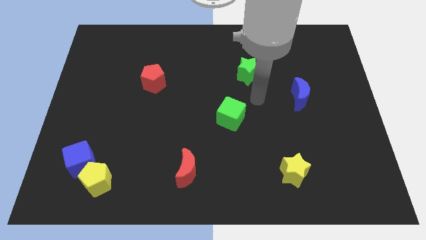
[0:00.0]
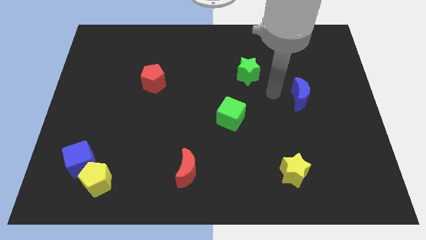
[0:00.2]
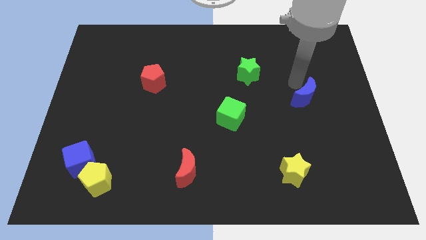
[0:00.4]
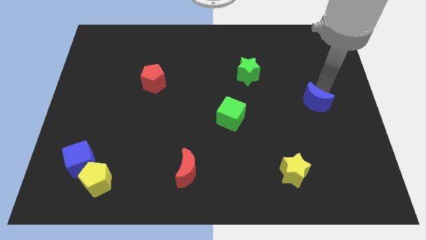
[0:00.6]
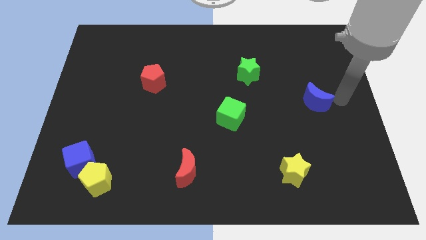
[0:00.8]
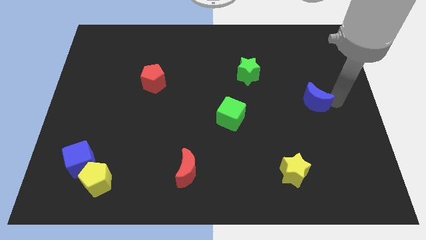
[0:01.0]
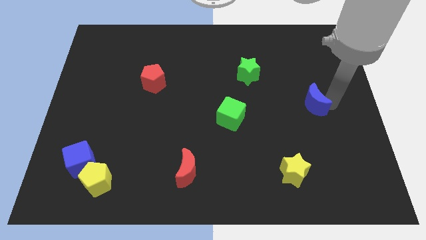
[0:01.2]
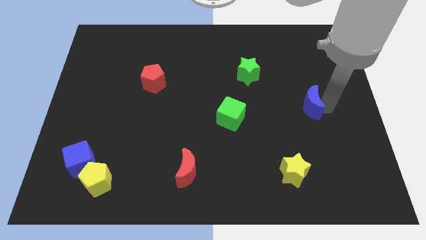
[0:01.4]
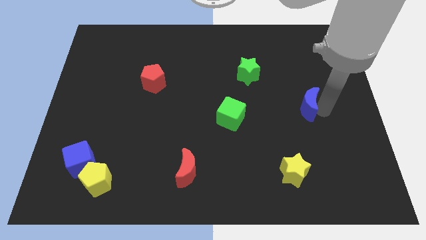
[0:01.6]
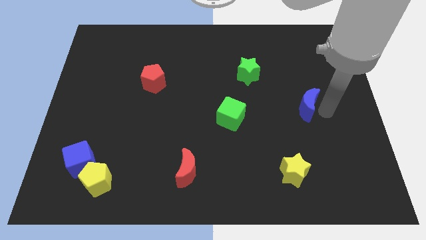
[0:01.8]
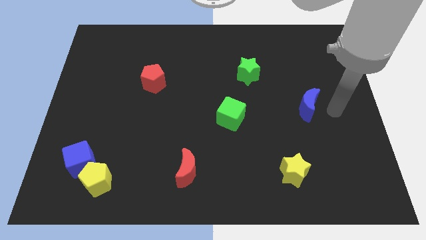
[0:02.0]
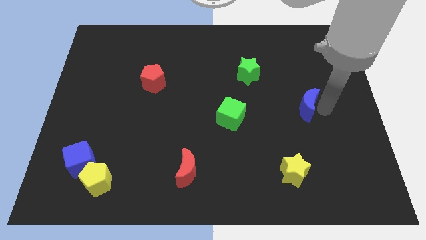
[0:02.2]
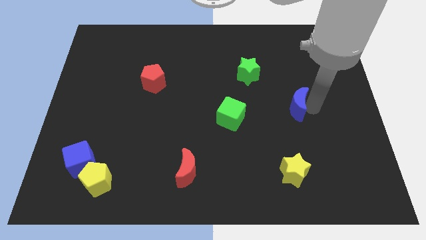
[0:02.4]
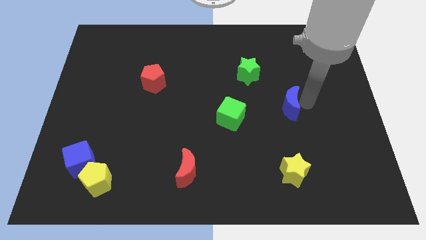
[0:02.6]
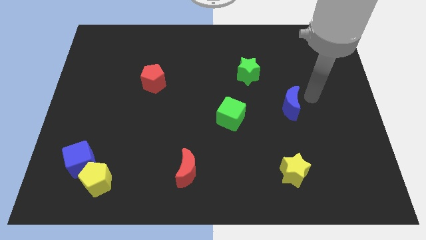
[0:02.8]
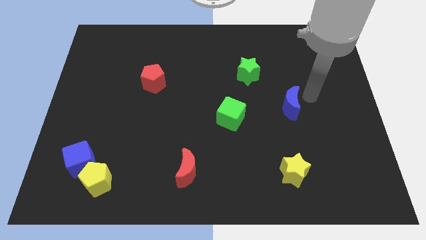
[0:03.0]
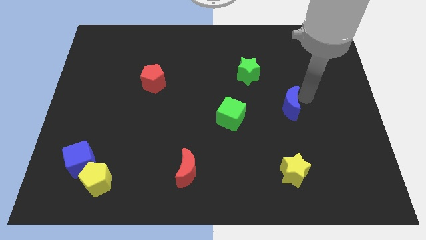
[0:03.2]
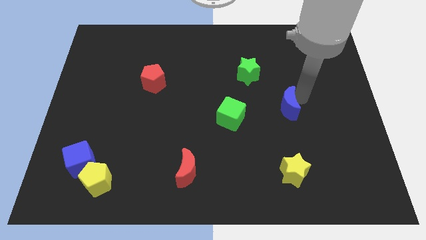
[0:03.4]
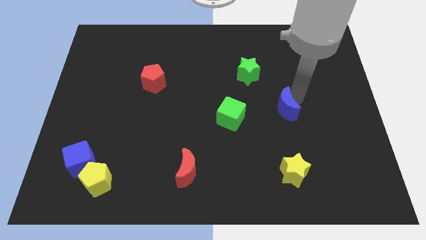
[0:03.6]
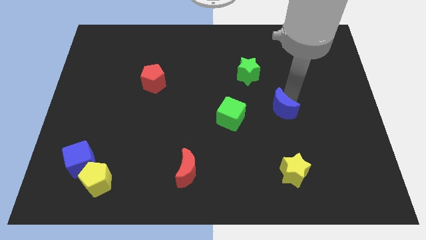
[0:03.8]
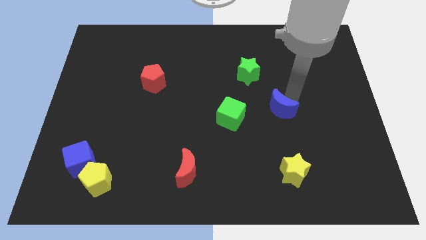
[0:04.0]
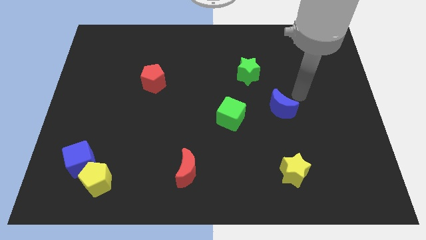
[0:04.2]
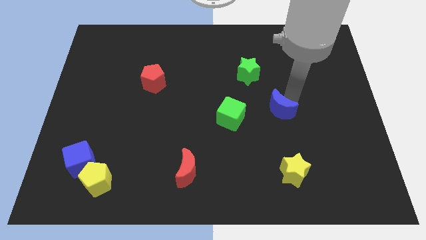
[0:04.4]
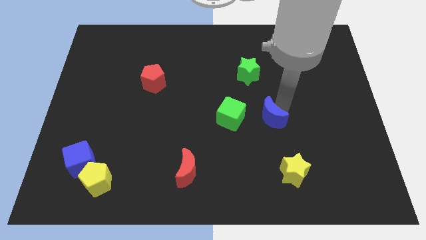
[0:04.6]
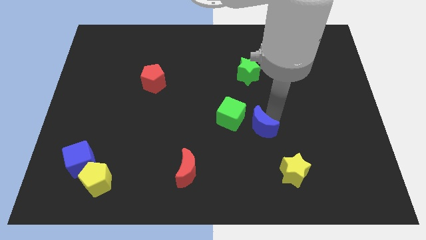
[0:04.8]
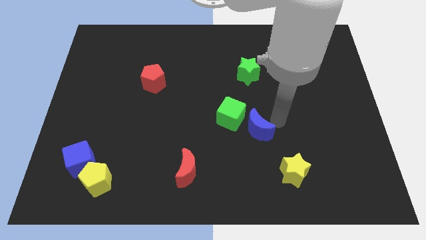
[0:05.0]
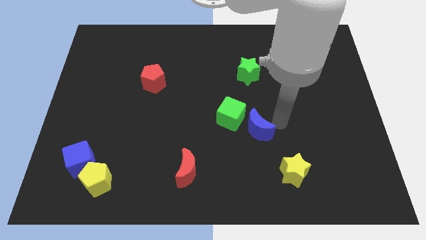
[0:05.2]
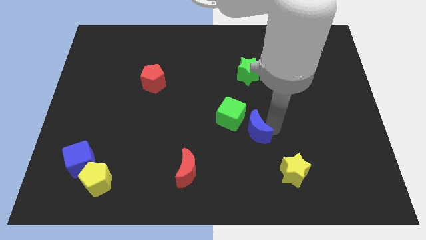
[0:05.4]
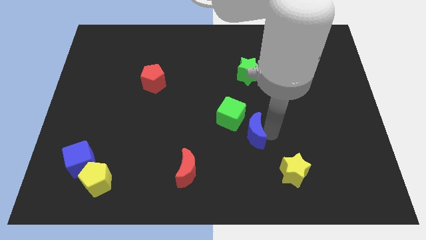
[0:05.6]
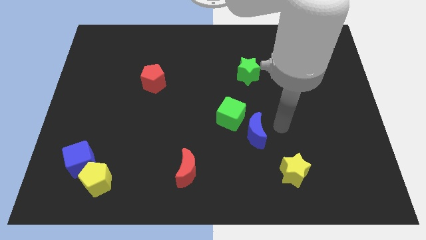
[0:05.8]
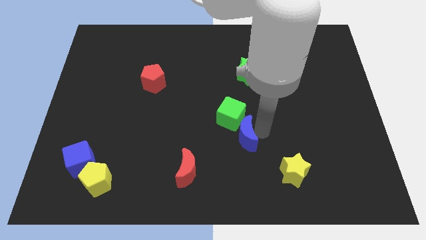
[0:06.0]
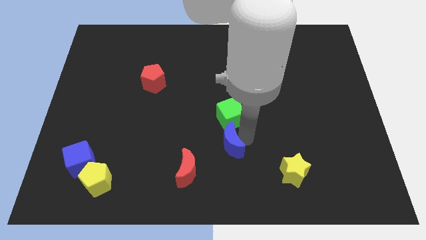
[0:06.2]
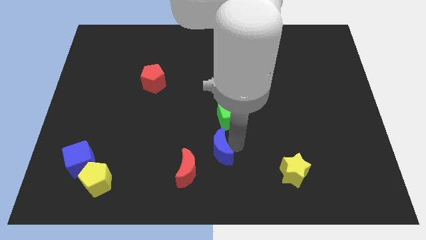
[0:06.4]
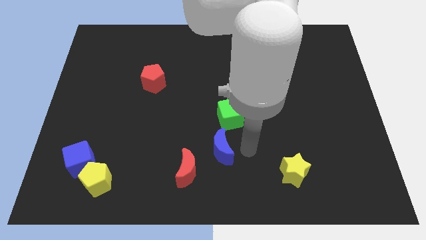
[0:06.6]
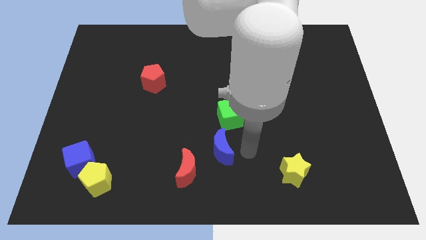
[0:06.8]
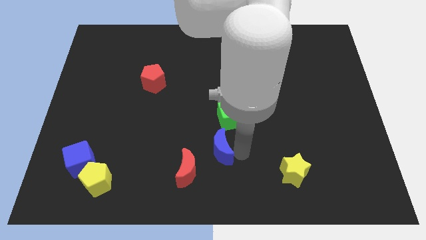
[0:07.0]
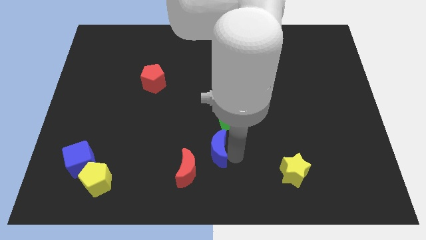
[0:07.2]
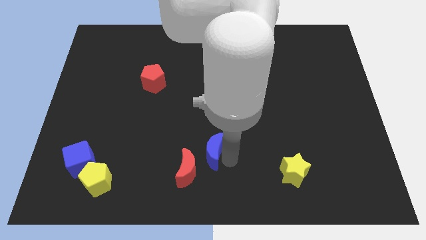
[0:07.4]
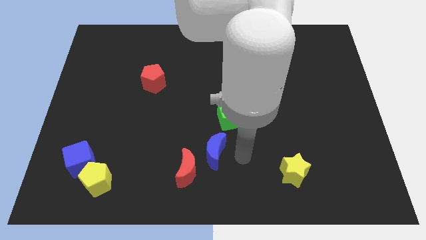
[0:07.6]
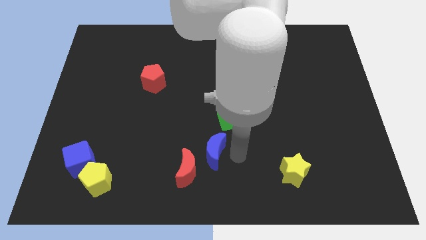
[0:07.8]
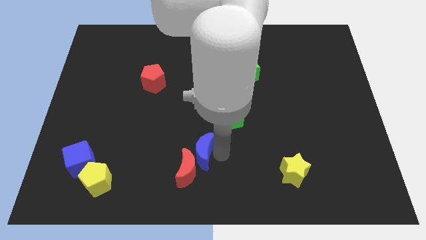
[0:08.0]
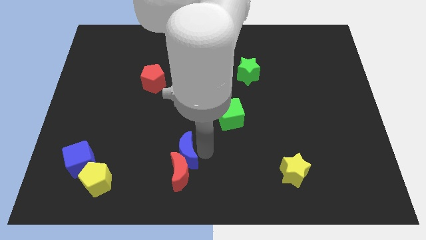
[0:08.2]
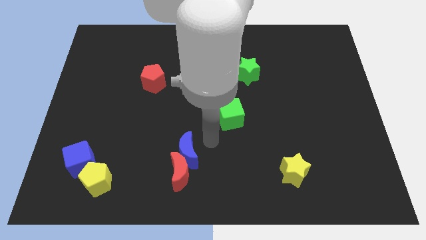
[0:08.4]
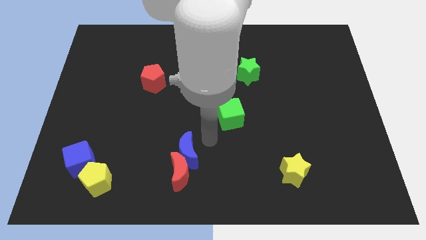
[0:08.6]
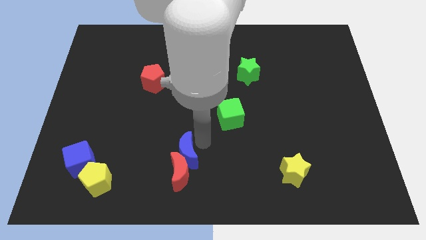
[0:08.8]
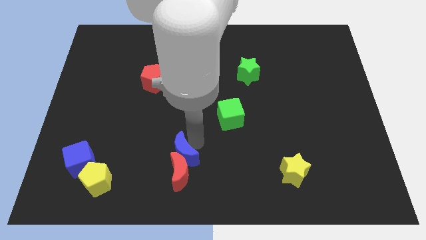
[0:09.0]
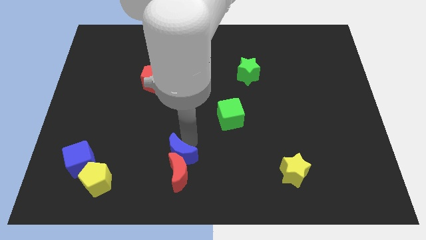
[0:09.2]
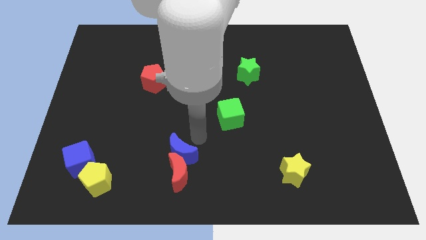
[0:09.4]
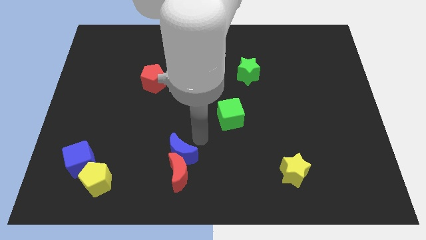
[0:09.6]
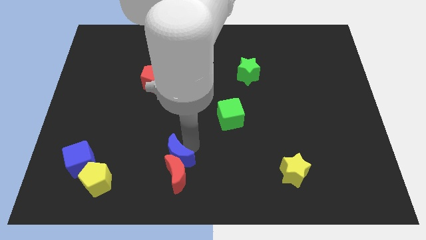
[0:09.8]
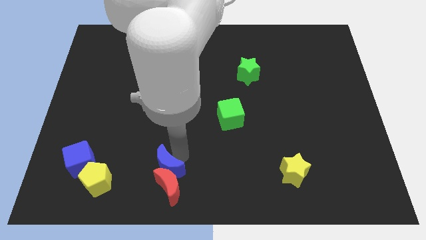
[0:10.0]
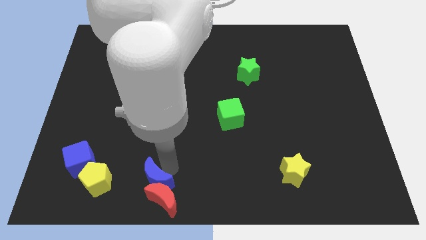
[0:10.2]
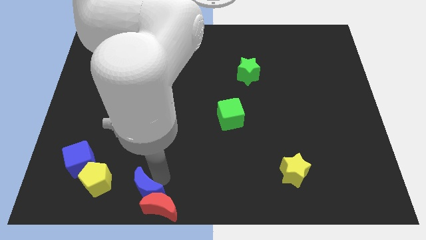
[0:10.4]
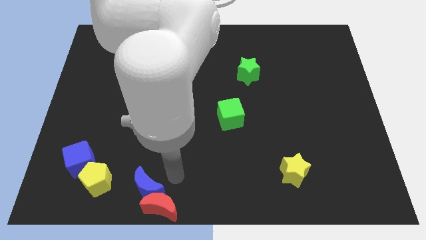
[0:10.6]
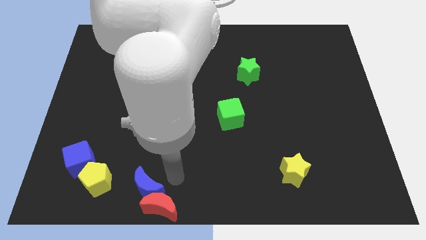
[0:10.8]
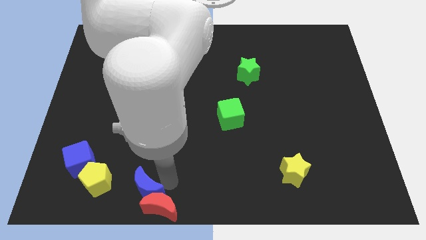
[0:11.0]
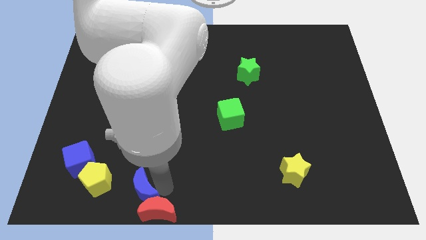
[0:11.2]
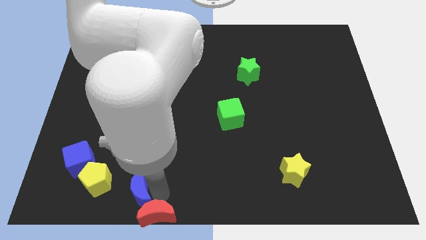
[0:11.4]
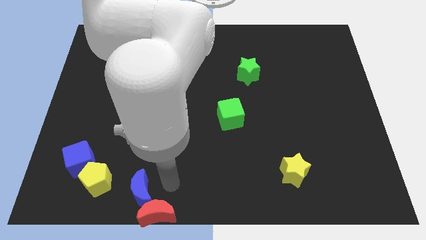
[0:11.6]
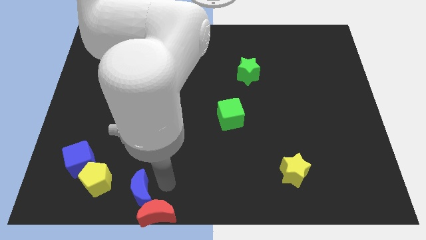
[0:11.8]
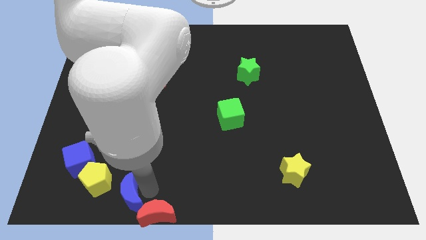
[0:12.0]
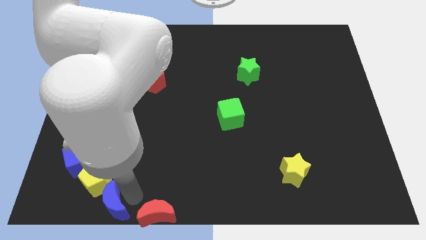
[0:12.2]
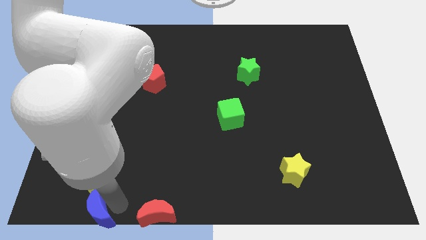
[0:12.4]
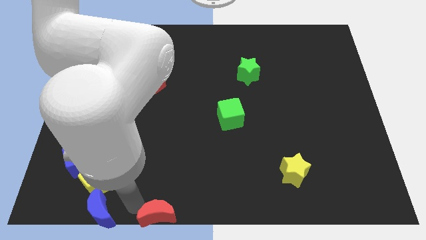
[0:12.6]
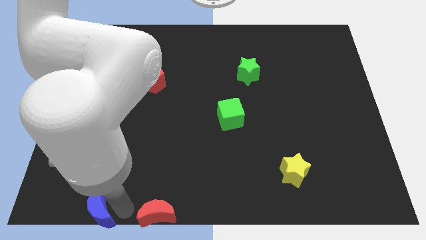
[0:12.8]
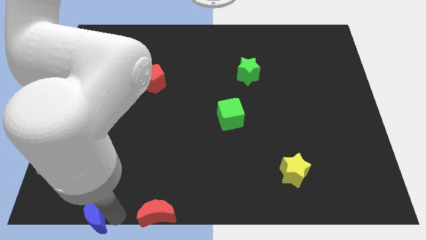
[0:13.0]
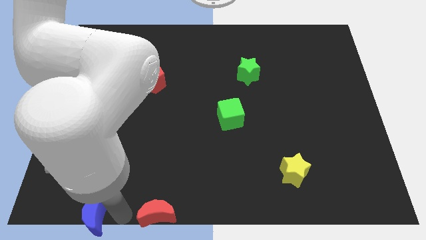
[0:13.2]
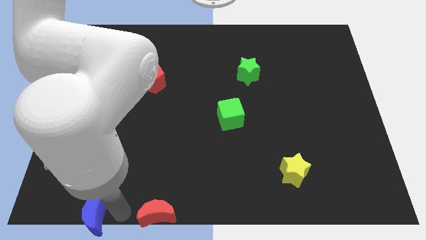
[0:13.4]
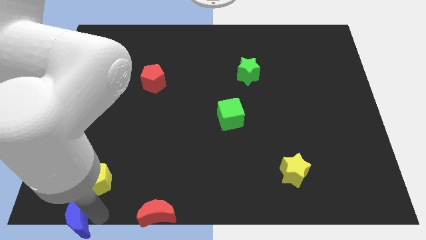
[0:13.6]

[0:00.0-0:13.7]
slide the blue moon to the bottom left of the board
